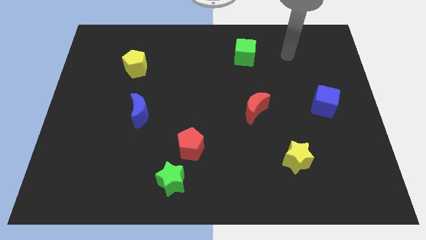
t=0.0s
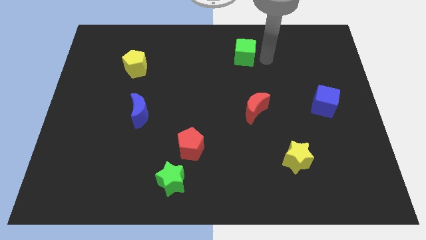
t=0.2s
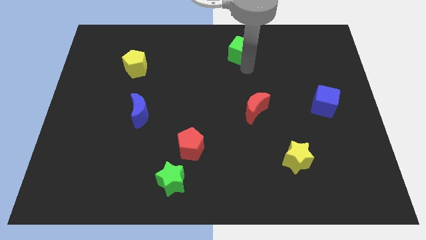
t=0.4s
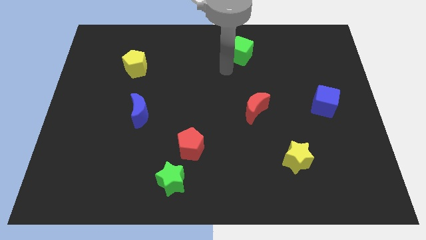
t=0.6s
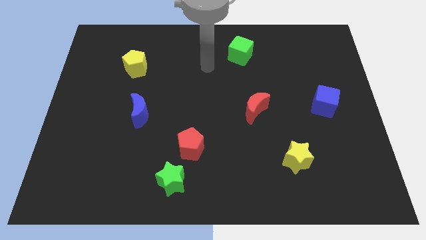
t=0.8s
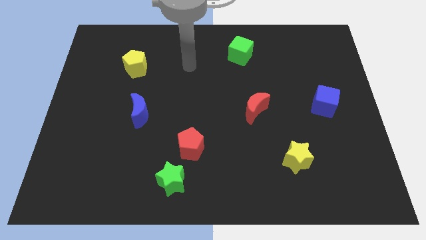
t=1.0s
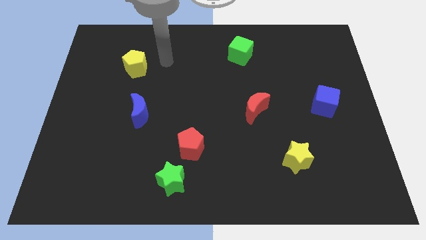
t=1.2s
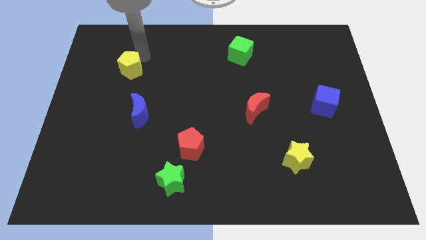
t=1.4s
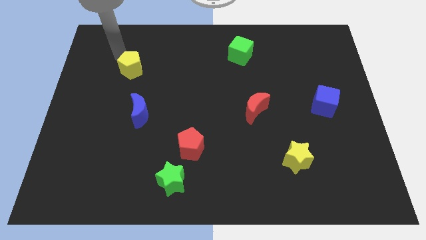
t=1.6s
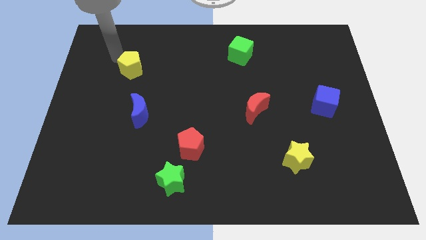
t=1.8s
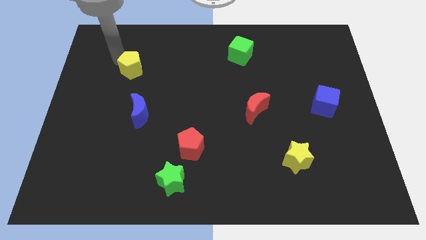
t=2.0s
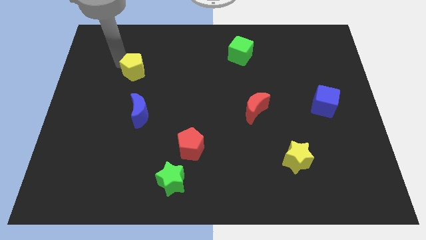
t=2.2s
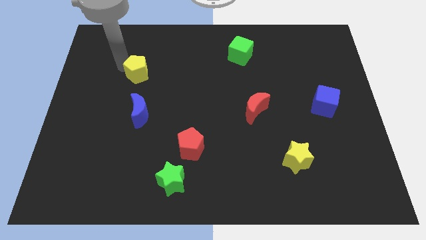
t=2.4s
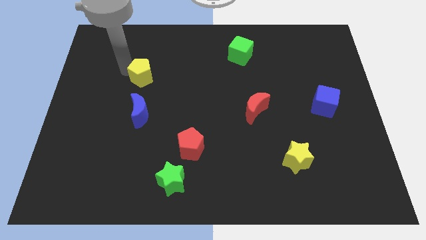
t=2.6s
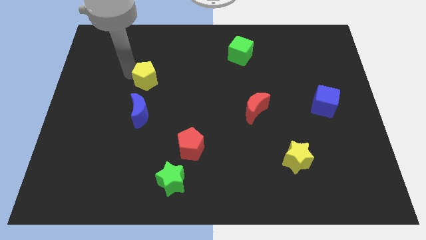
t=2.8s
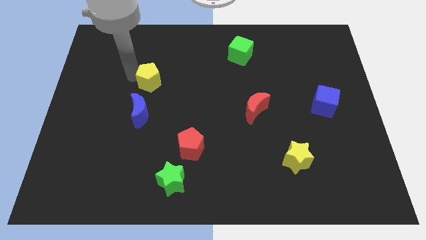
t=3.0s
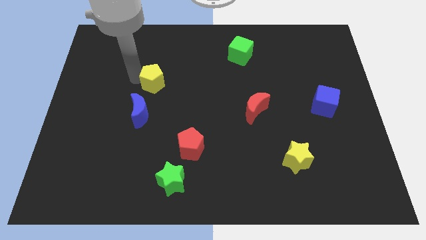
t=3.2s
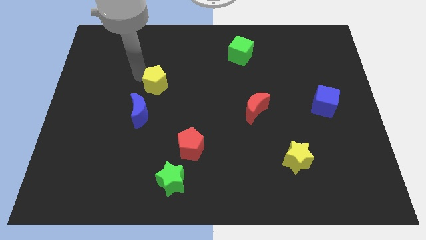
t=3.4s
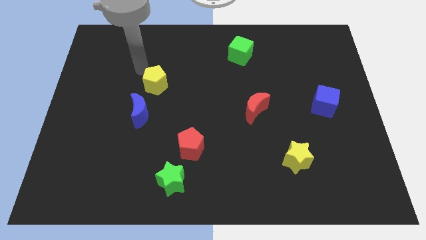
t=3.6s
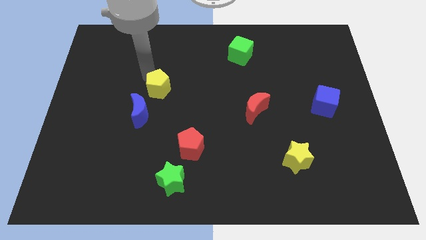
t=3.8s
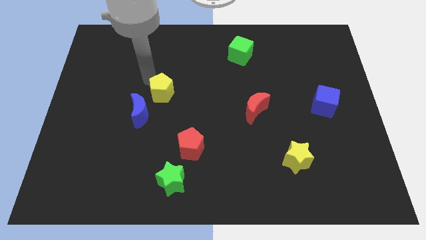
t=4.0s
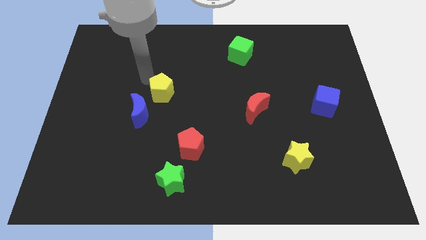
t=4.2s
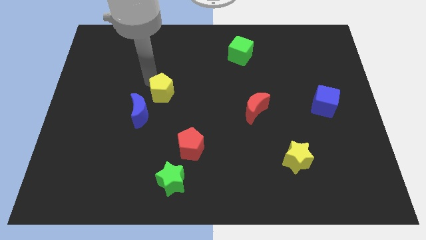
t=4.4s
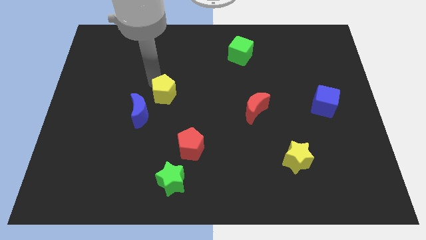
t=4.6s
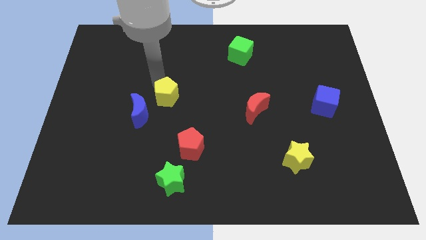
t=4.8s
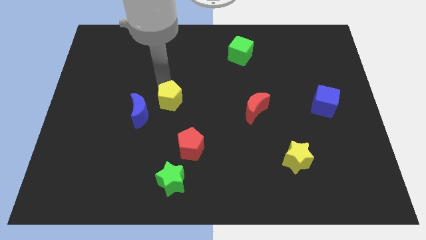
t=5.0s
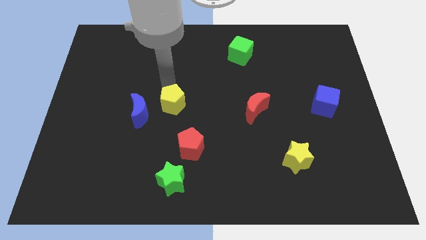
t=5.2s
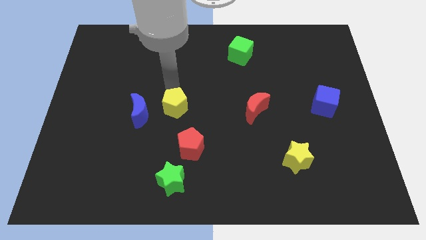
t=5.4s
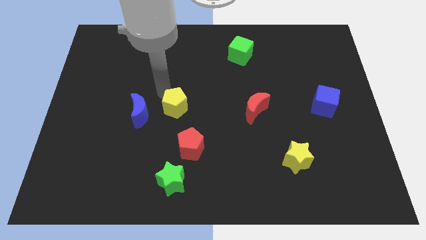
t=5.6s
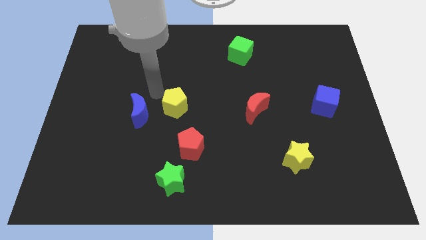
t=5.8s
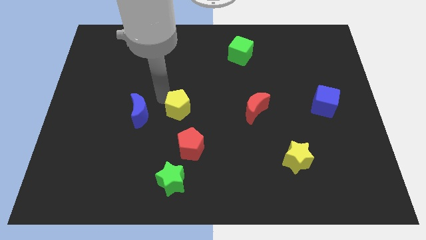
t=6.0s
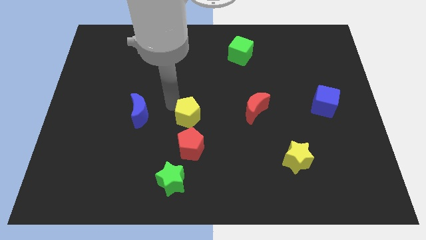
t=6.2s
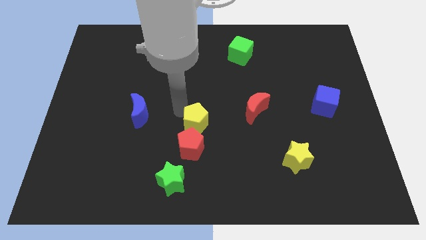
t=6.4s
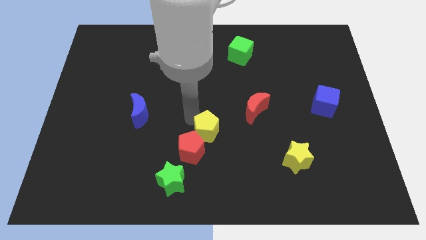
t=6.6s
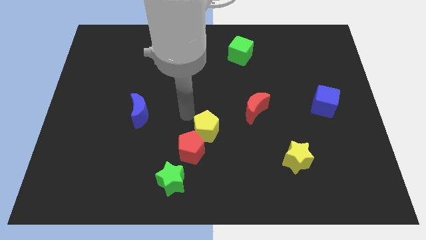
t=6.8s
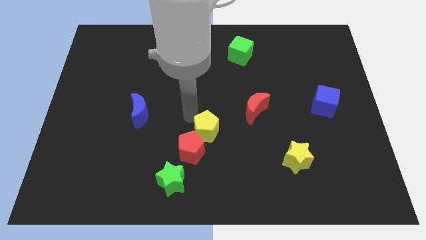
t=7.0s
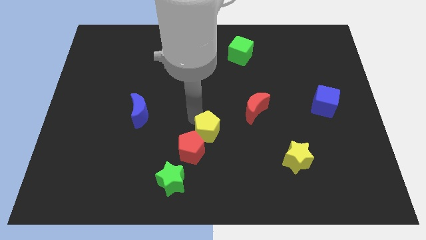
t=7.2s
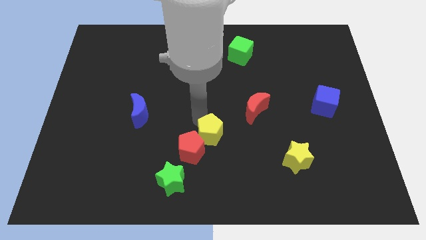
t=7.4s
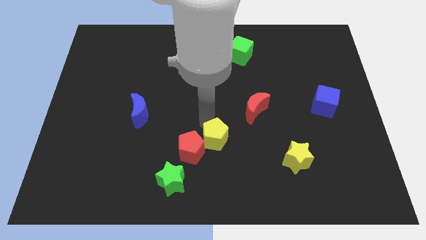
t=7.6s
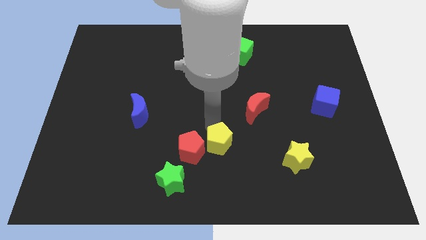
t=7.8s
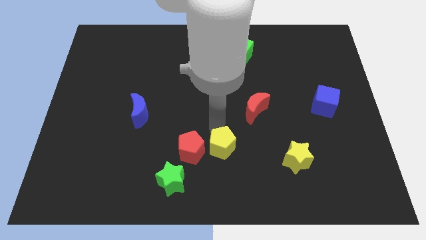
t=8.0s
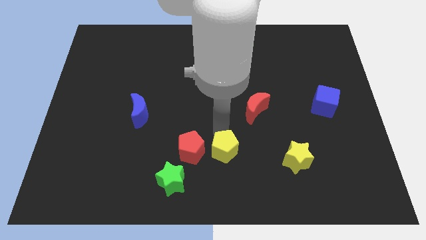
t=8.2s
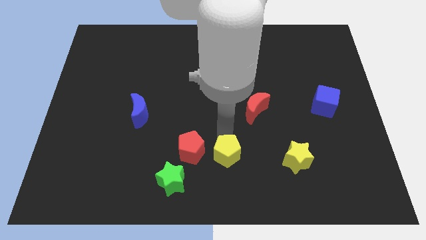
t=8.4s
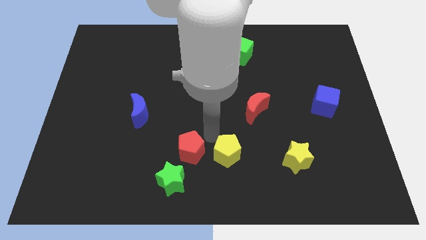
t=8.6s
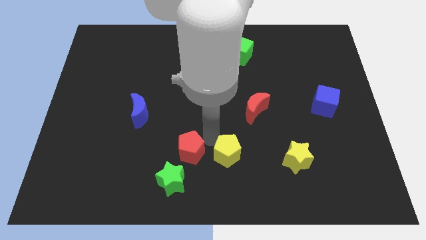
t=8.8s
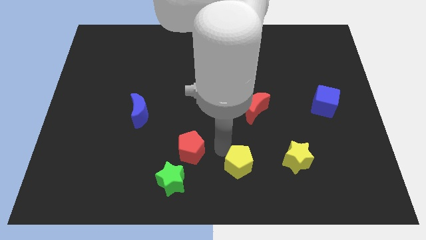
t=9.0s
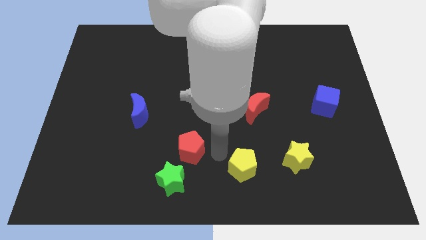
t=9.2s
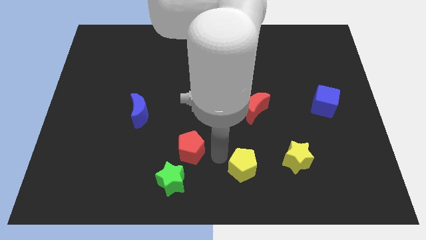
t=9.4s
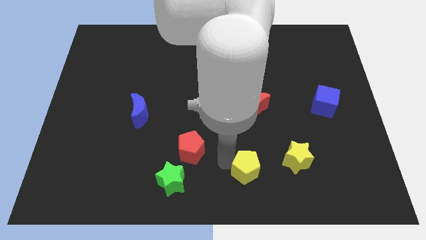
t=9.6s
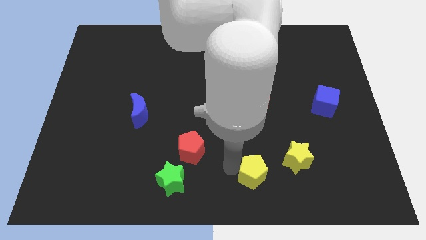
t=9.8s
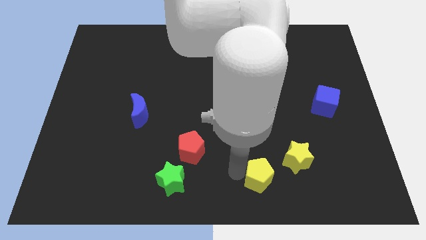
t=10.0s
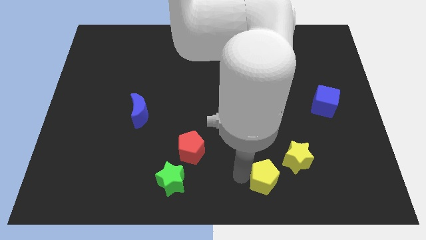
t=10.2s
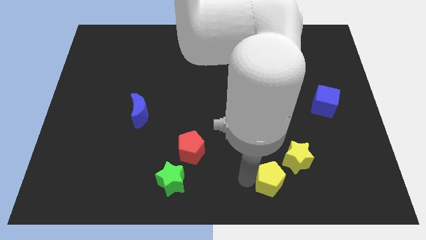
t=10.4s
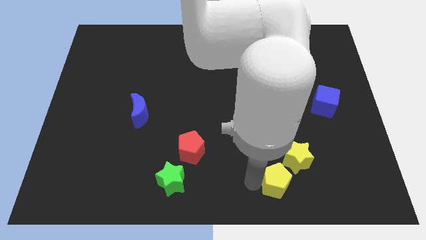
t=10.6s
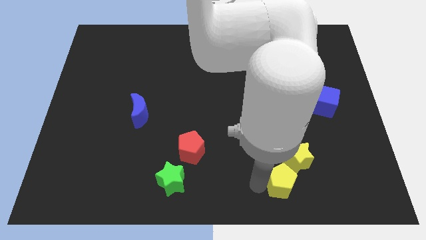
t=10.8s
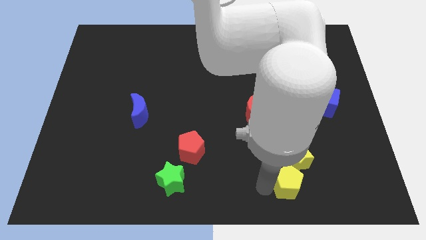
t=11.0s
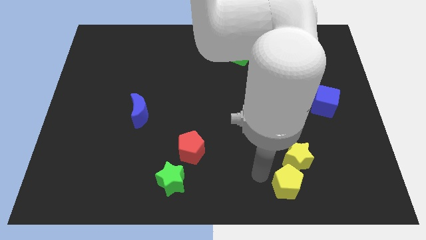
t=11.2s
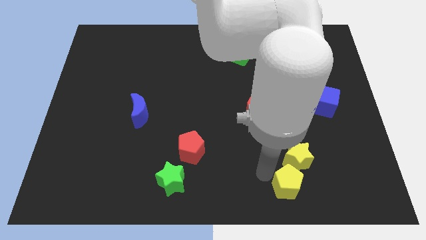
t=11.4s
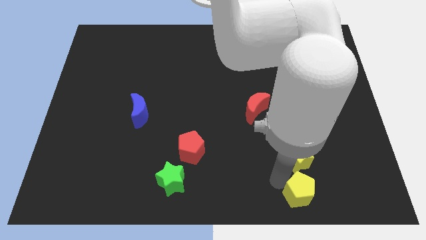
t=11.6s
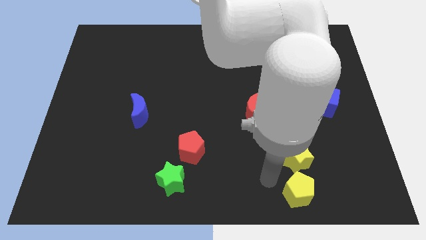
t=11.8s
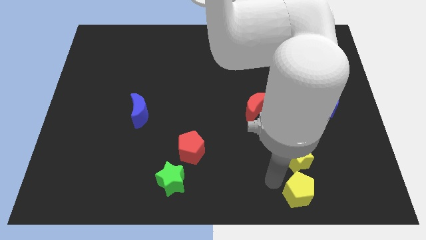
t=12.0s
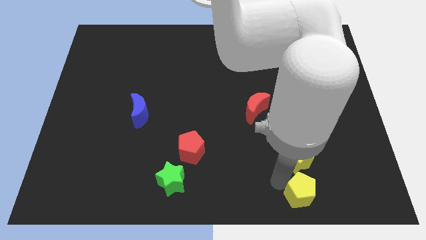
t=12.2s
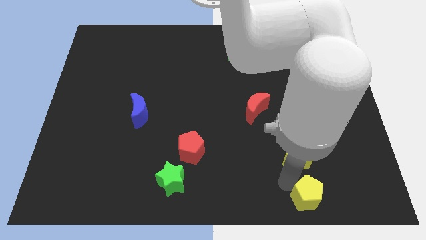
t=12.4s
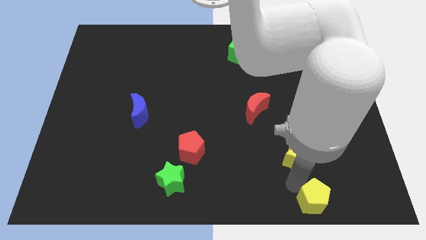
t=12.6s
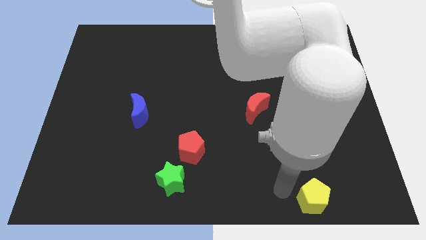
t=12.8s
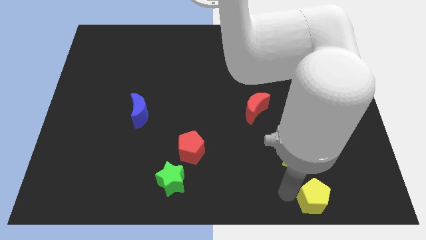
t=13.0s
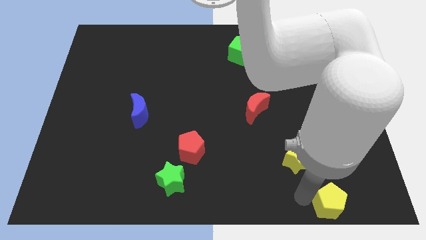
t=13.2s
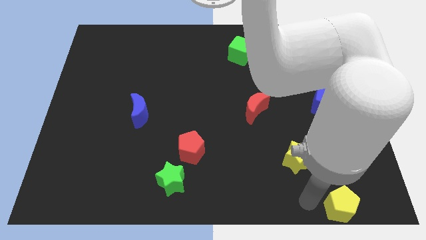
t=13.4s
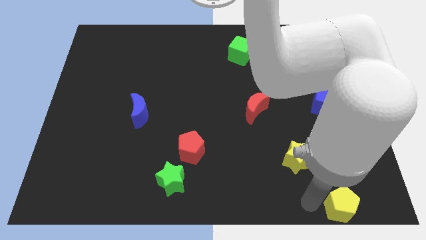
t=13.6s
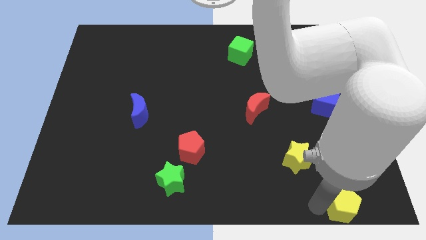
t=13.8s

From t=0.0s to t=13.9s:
push the yellow pentagon to the bottom right of the board

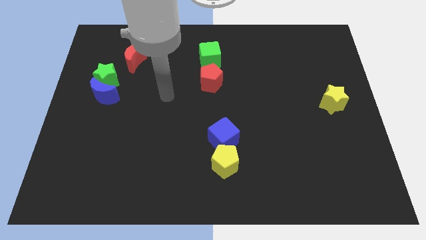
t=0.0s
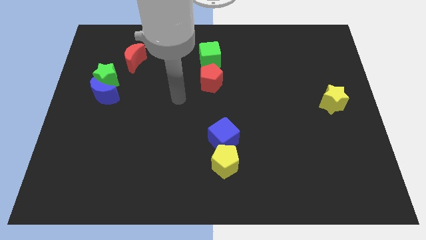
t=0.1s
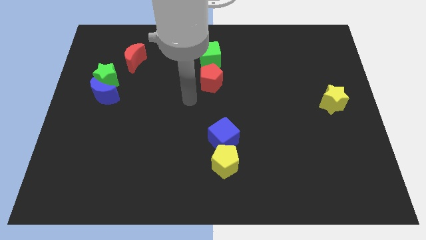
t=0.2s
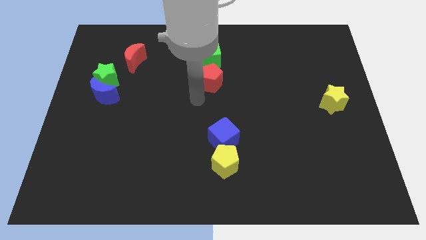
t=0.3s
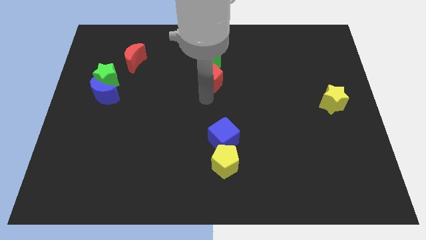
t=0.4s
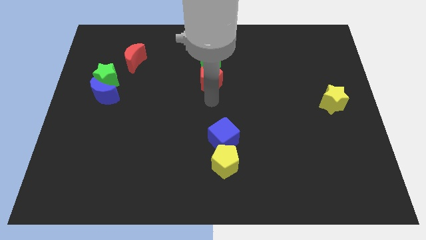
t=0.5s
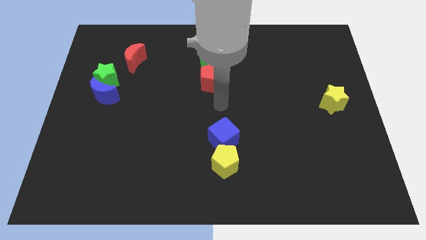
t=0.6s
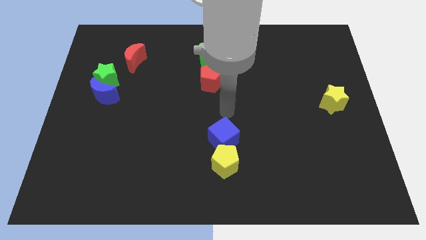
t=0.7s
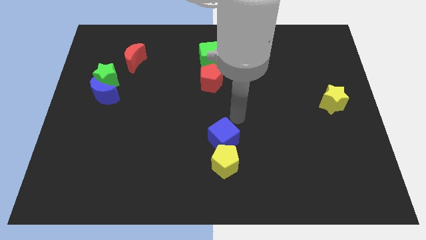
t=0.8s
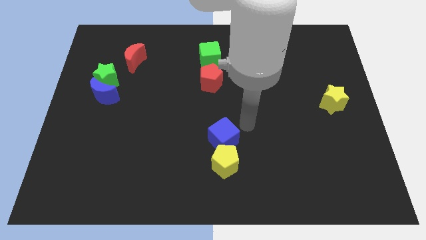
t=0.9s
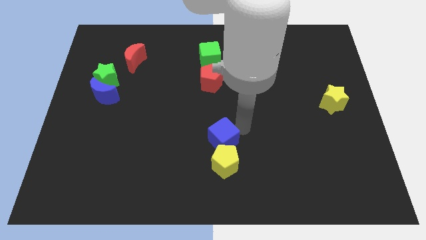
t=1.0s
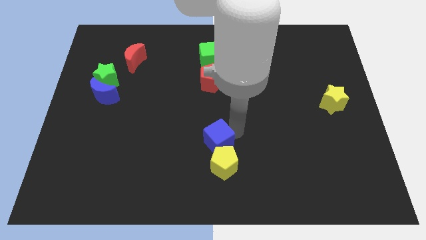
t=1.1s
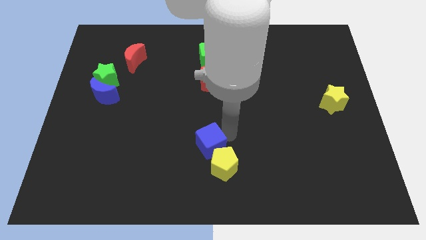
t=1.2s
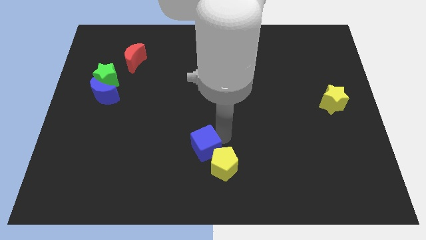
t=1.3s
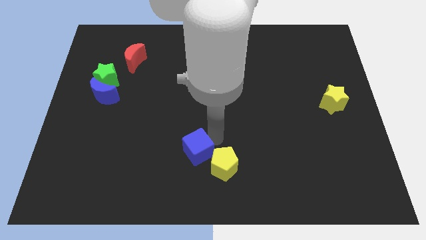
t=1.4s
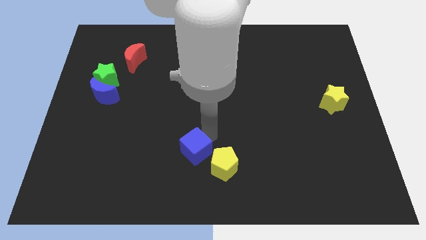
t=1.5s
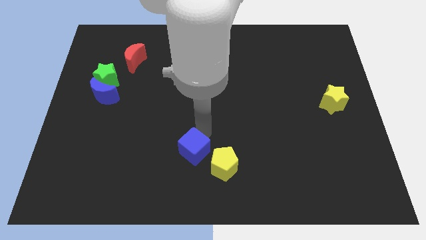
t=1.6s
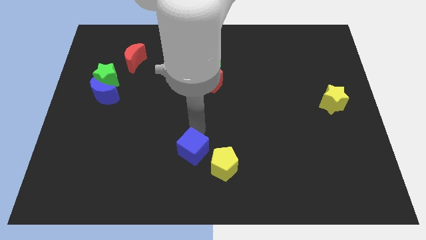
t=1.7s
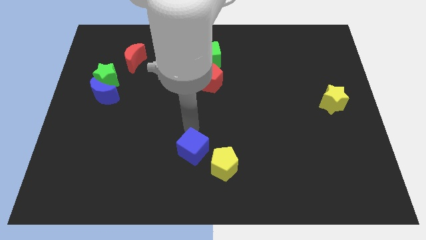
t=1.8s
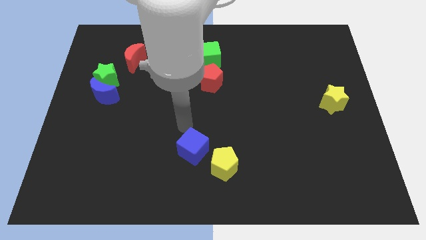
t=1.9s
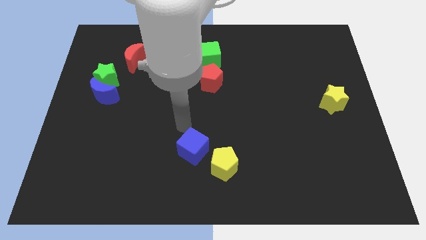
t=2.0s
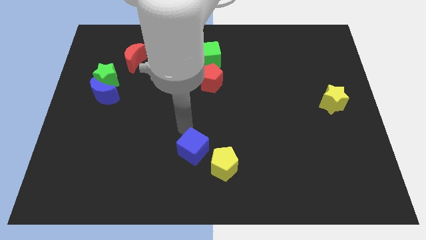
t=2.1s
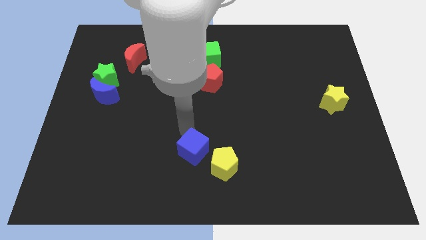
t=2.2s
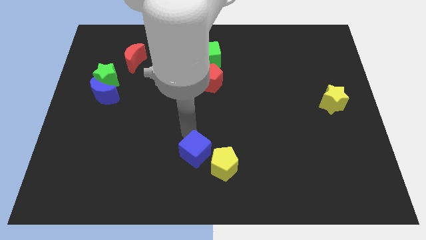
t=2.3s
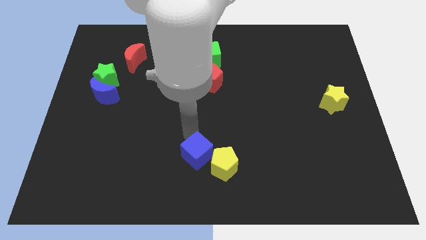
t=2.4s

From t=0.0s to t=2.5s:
slide the blue cube to the bottom
